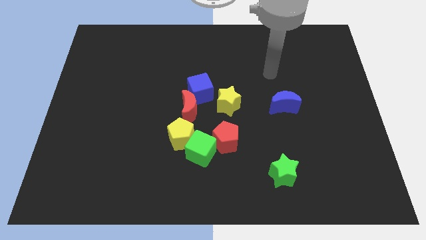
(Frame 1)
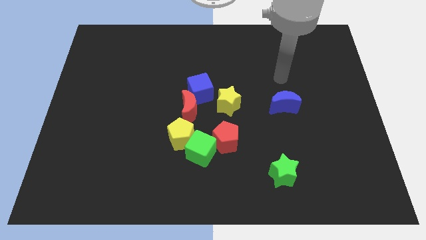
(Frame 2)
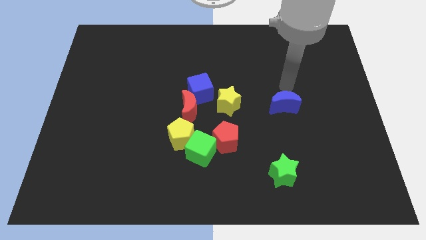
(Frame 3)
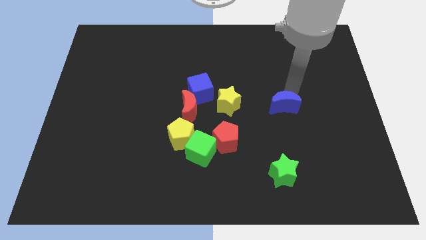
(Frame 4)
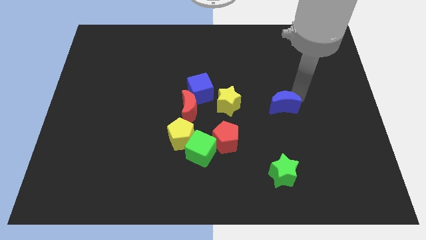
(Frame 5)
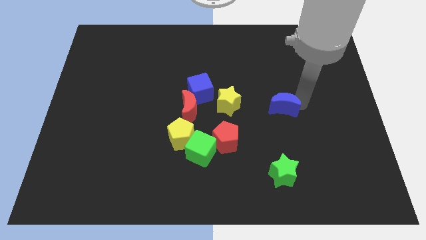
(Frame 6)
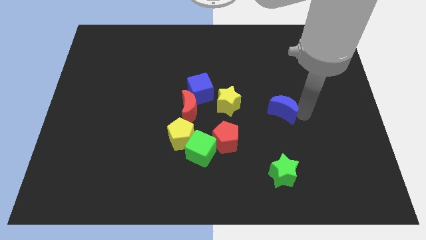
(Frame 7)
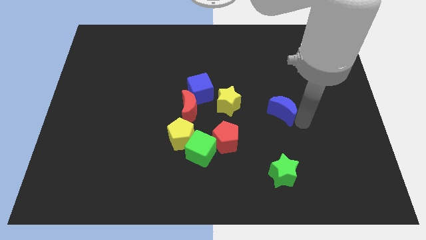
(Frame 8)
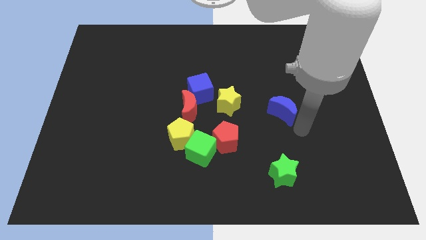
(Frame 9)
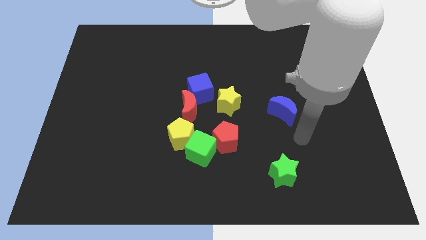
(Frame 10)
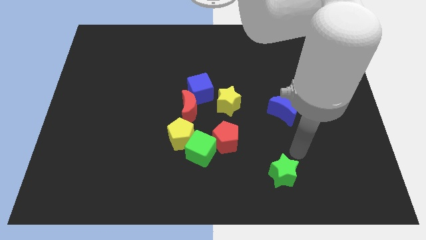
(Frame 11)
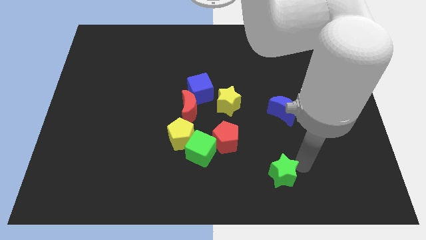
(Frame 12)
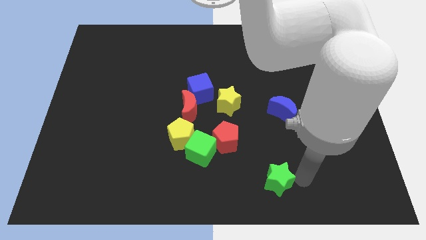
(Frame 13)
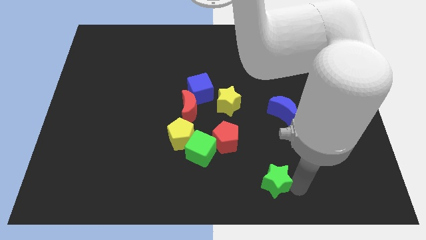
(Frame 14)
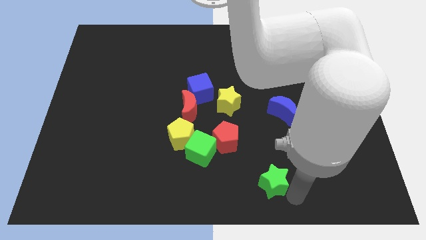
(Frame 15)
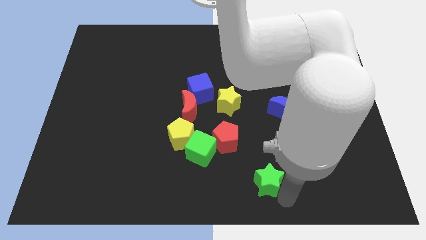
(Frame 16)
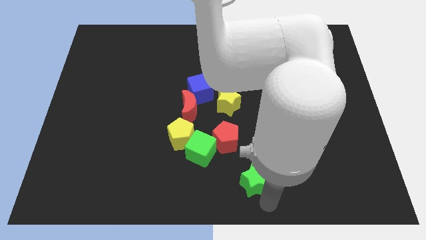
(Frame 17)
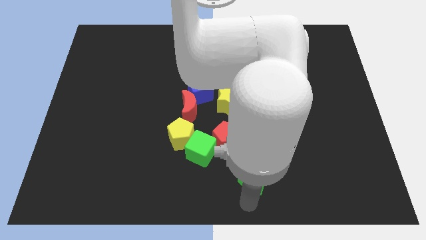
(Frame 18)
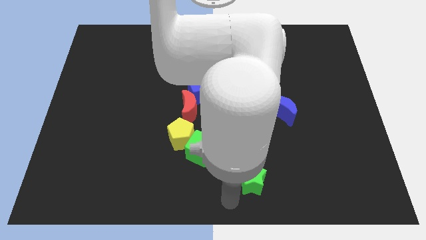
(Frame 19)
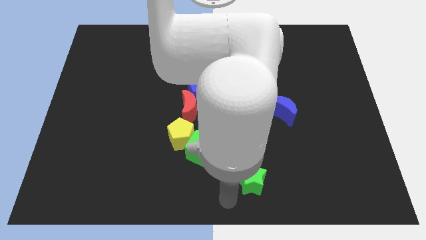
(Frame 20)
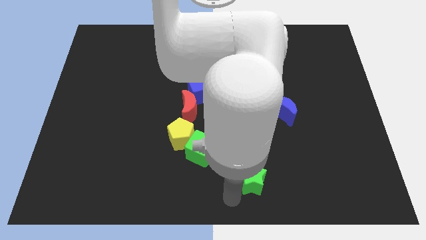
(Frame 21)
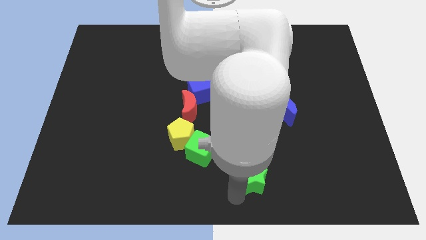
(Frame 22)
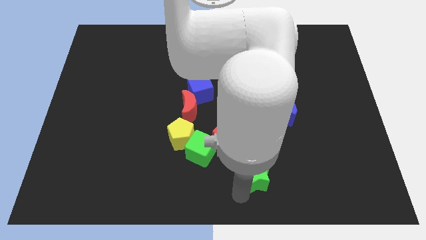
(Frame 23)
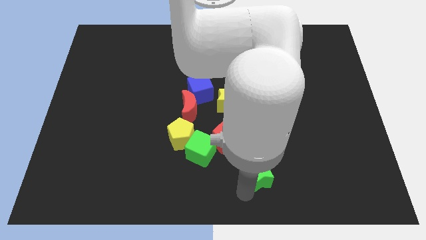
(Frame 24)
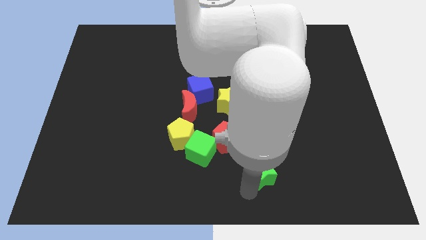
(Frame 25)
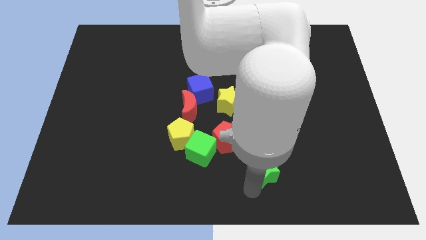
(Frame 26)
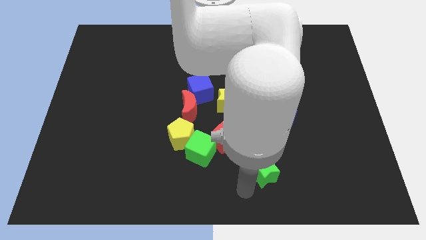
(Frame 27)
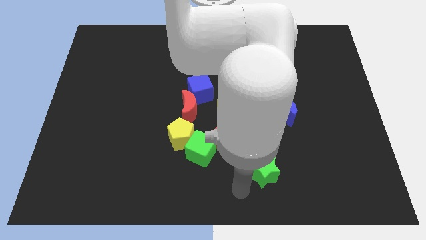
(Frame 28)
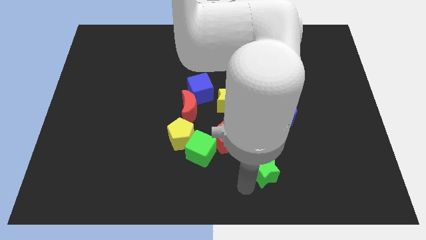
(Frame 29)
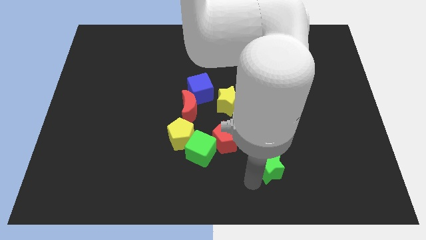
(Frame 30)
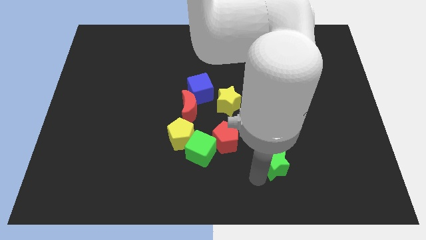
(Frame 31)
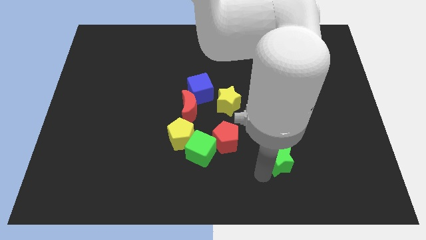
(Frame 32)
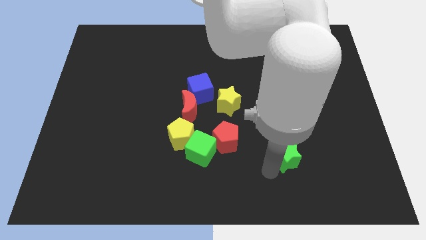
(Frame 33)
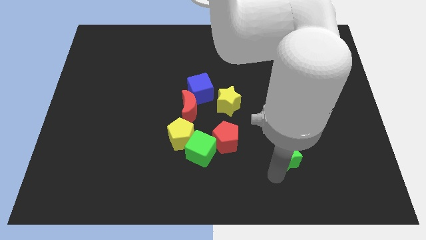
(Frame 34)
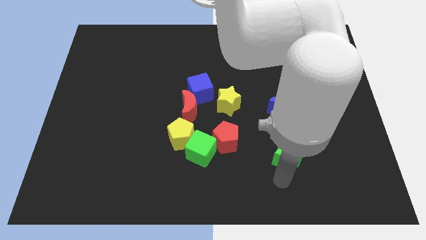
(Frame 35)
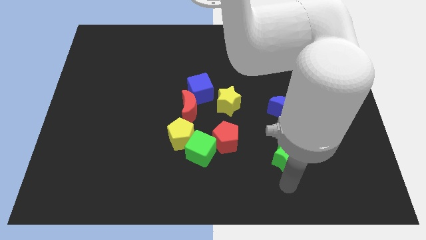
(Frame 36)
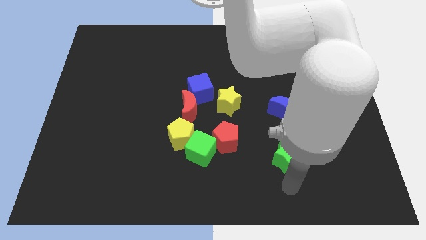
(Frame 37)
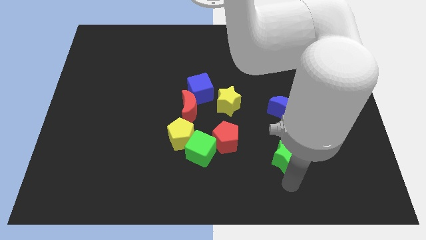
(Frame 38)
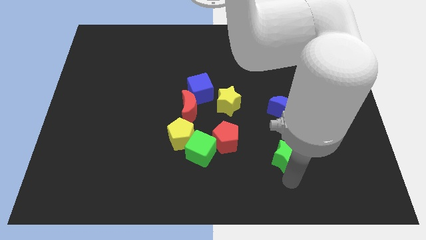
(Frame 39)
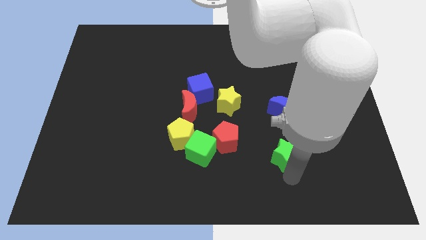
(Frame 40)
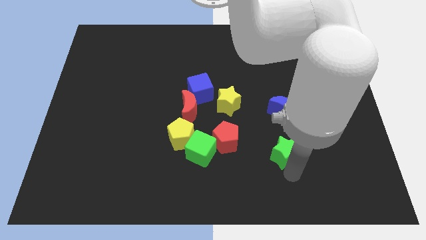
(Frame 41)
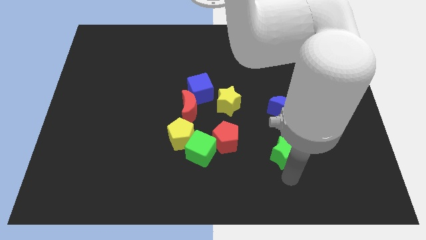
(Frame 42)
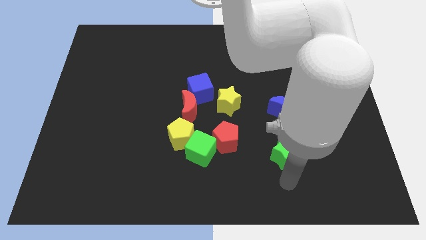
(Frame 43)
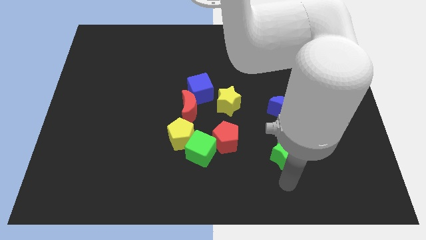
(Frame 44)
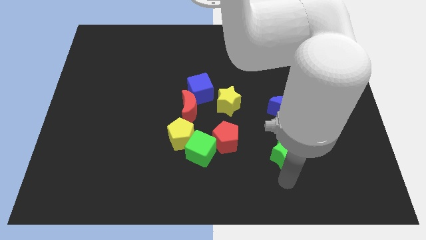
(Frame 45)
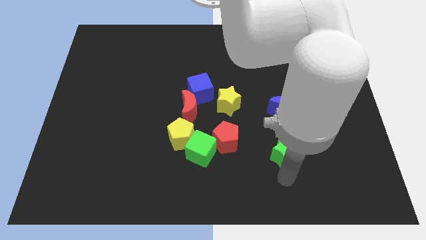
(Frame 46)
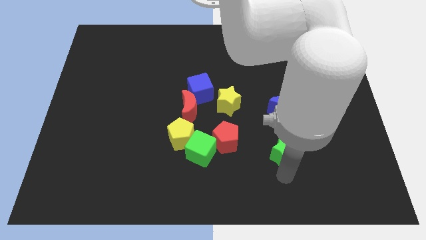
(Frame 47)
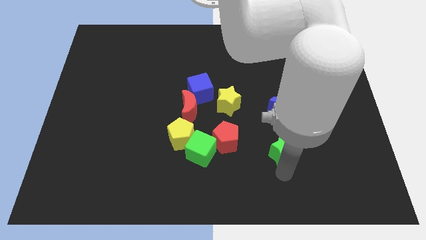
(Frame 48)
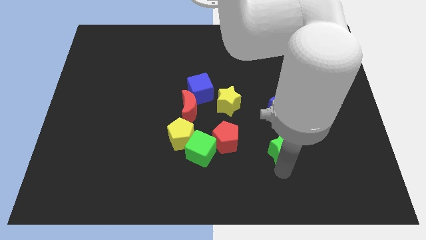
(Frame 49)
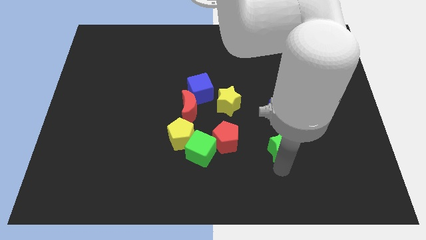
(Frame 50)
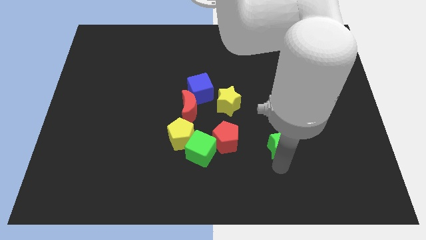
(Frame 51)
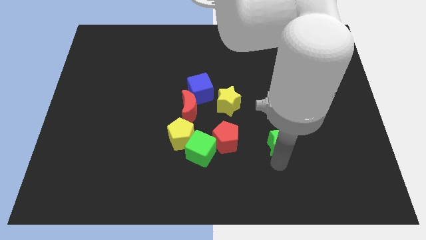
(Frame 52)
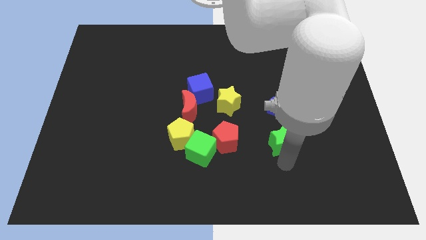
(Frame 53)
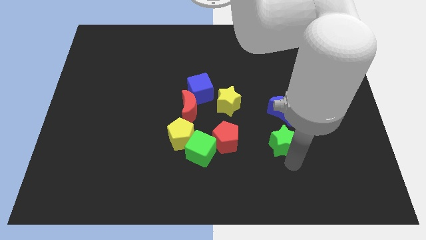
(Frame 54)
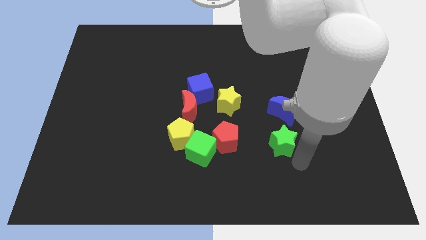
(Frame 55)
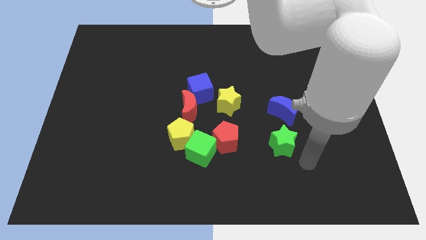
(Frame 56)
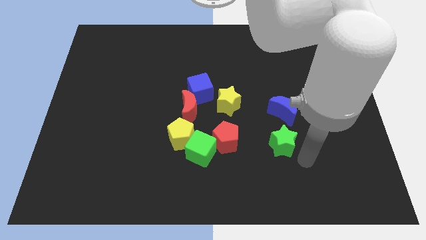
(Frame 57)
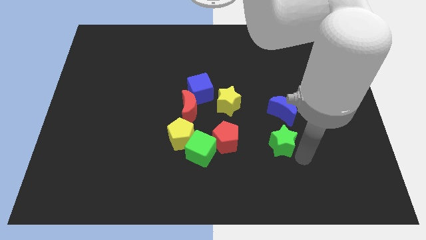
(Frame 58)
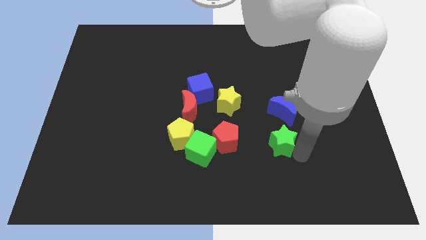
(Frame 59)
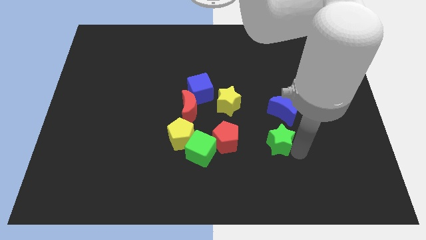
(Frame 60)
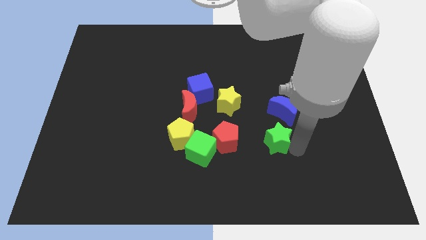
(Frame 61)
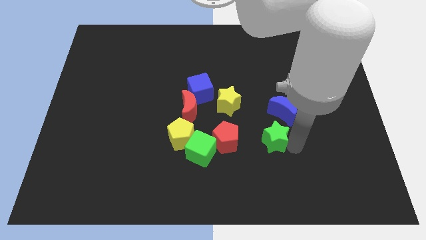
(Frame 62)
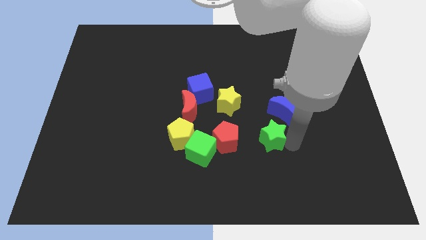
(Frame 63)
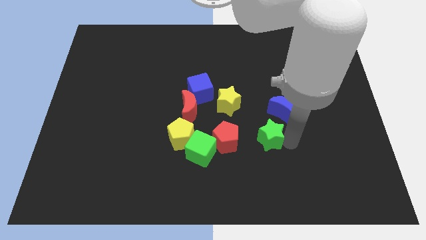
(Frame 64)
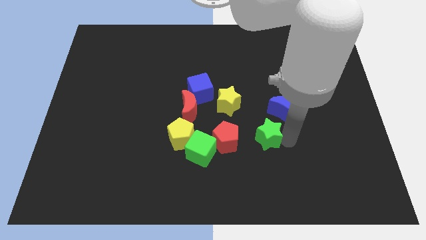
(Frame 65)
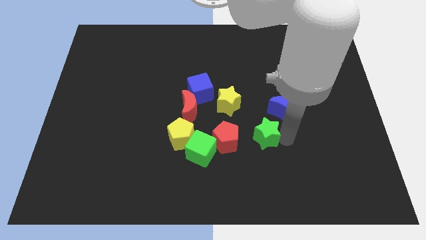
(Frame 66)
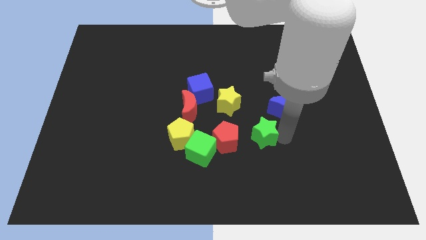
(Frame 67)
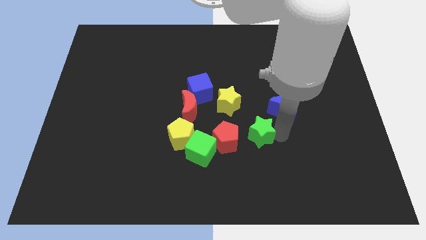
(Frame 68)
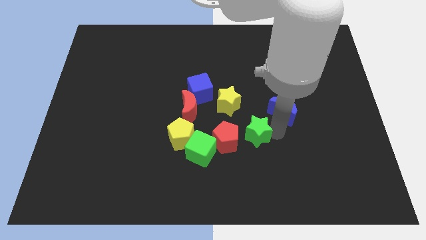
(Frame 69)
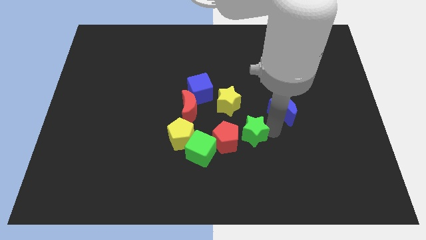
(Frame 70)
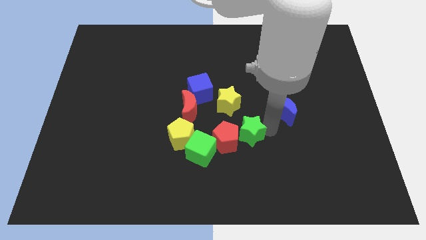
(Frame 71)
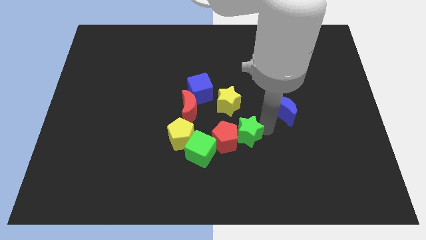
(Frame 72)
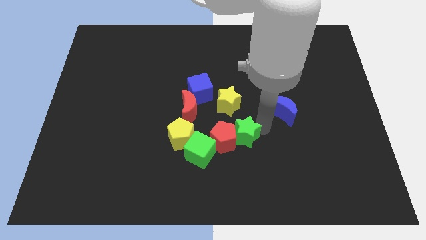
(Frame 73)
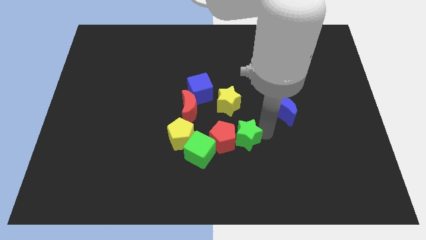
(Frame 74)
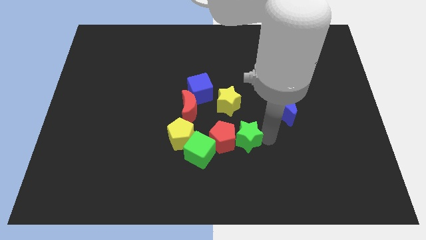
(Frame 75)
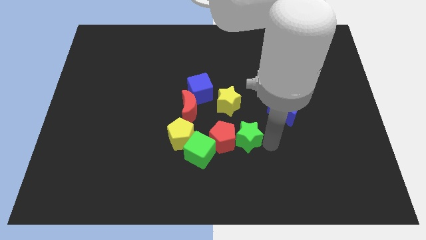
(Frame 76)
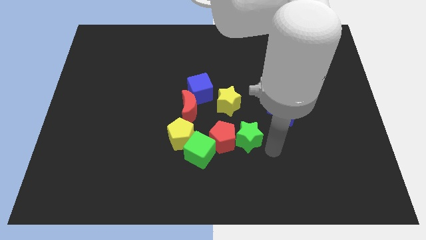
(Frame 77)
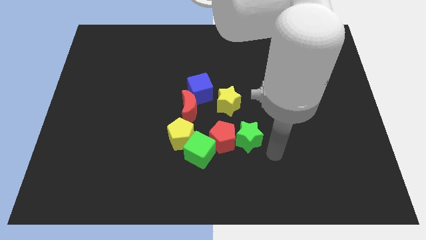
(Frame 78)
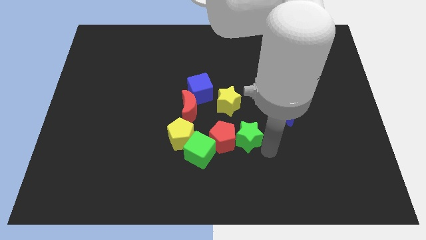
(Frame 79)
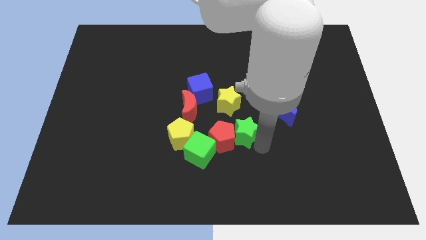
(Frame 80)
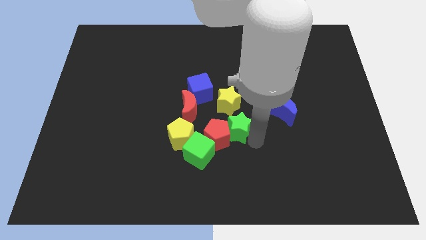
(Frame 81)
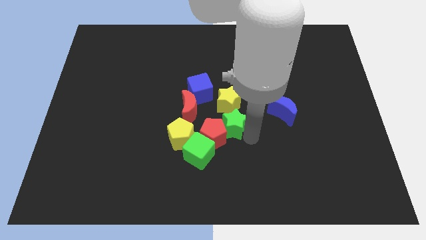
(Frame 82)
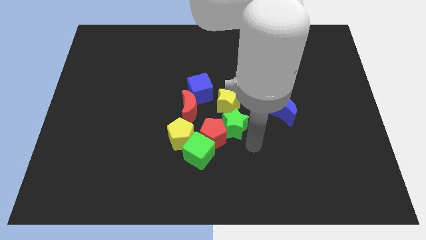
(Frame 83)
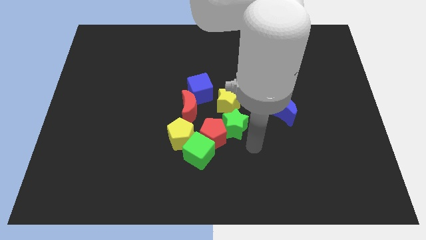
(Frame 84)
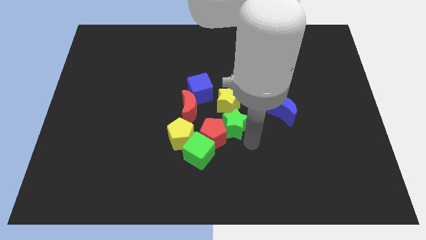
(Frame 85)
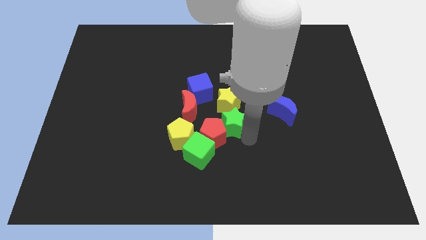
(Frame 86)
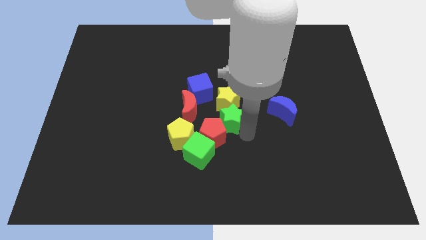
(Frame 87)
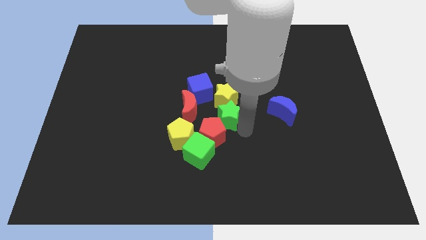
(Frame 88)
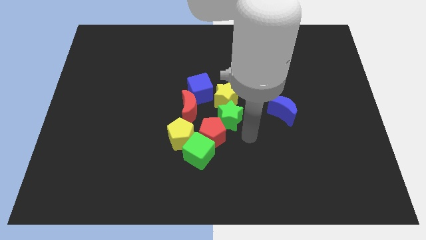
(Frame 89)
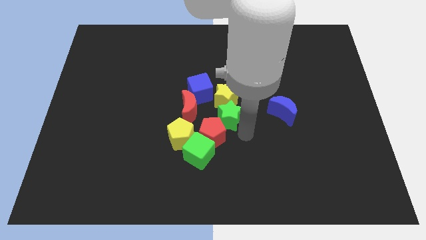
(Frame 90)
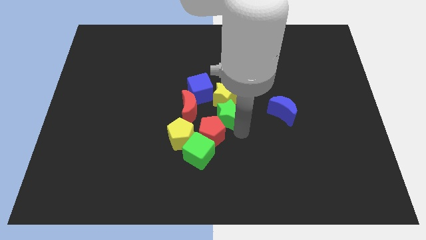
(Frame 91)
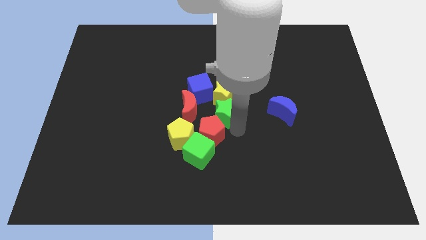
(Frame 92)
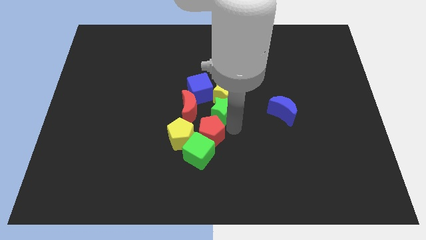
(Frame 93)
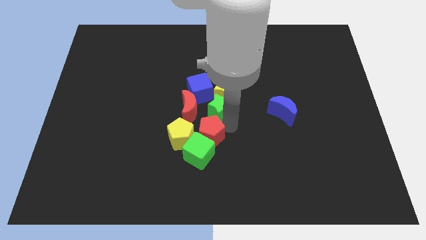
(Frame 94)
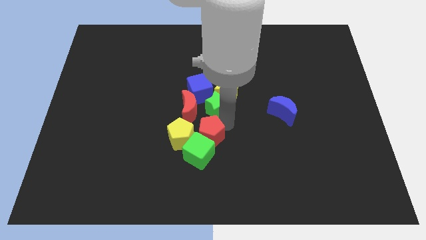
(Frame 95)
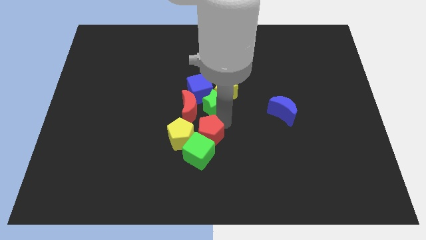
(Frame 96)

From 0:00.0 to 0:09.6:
put the green star towards the blue cube
